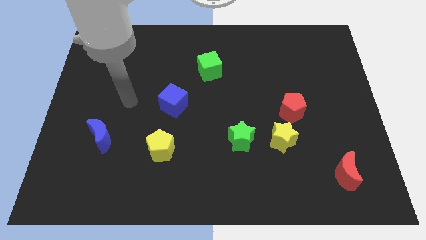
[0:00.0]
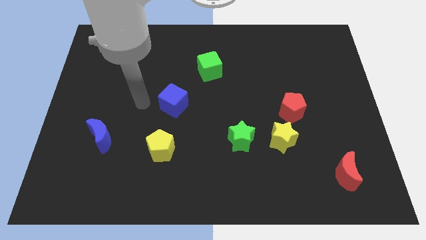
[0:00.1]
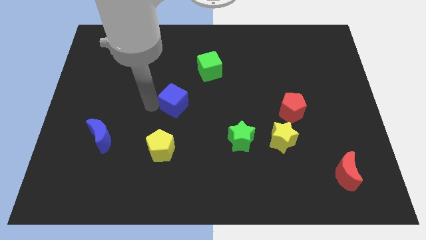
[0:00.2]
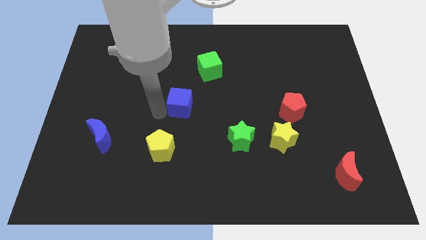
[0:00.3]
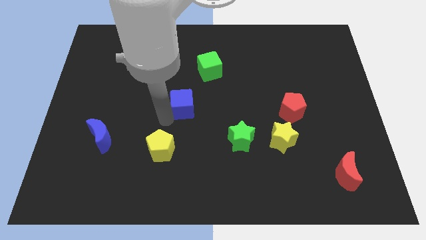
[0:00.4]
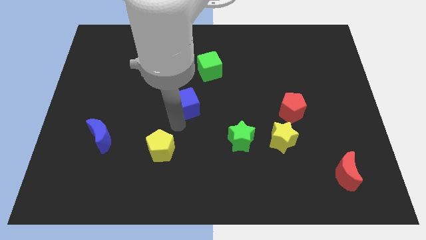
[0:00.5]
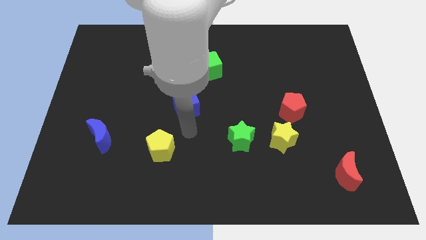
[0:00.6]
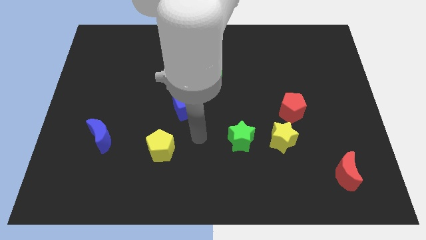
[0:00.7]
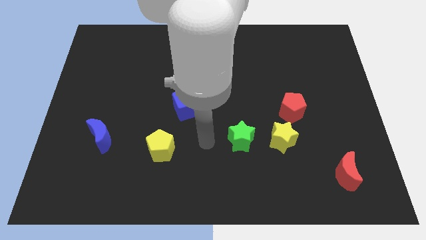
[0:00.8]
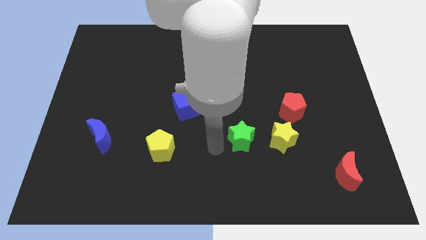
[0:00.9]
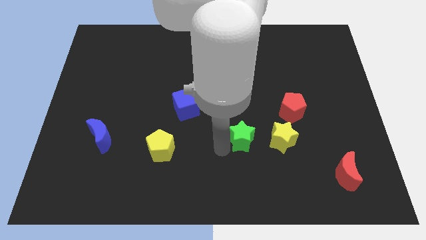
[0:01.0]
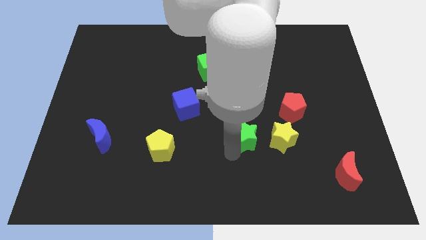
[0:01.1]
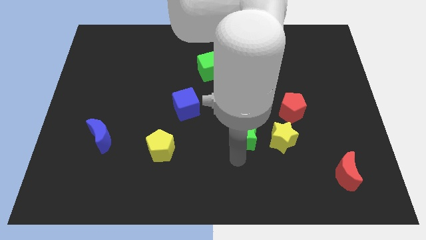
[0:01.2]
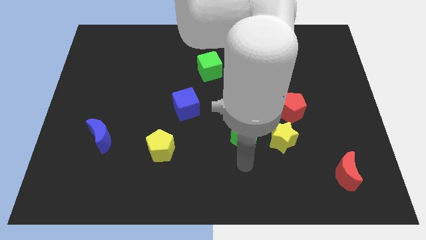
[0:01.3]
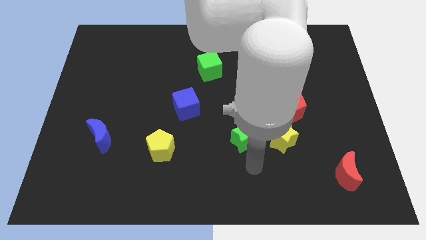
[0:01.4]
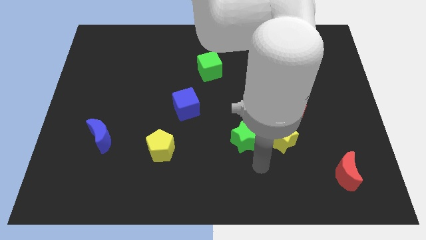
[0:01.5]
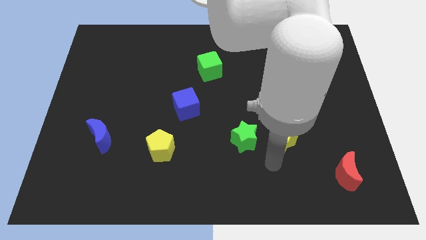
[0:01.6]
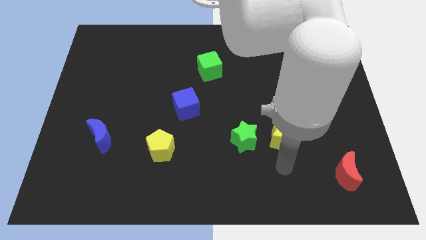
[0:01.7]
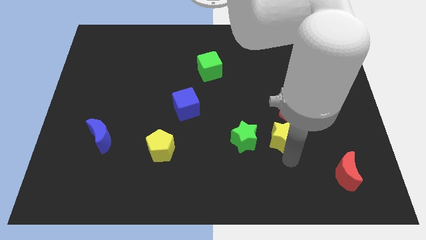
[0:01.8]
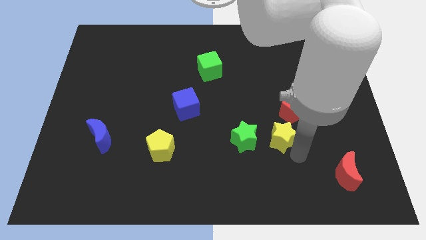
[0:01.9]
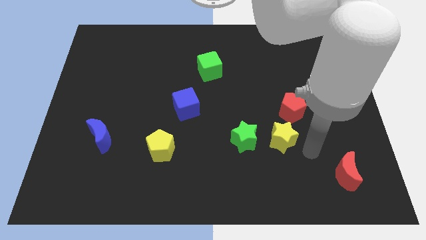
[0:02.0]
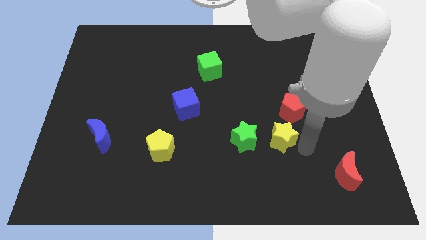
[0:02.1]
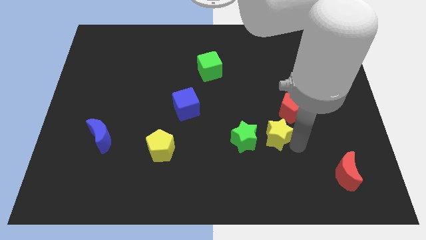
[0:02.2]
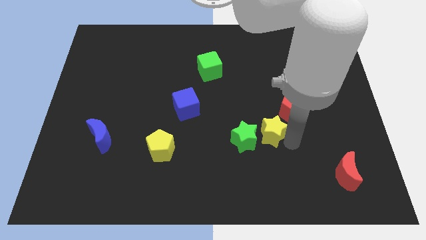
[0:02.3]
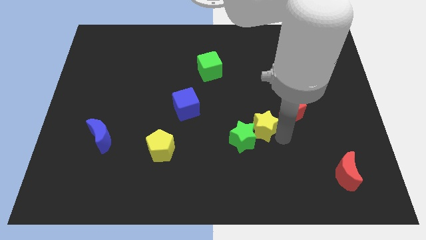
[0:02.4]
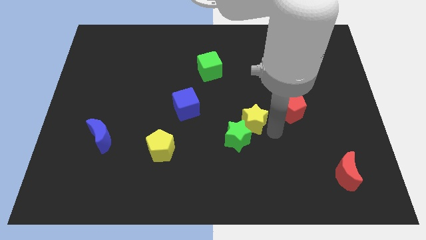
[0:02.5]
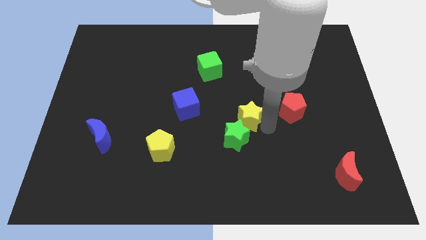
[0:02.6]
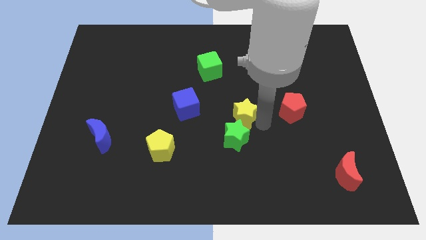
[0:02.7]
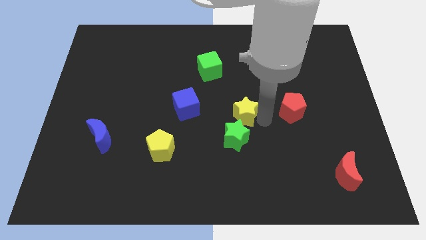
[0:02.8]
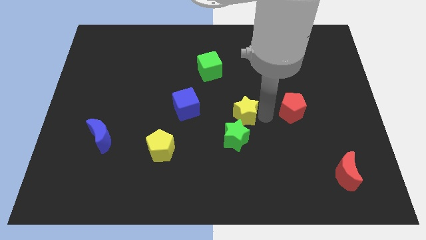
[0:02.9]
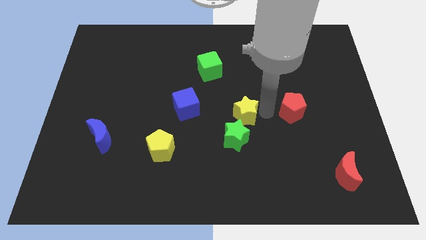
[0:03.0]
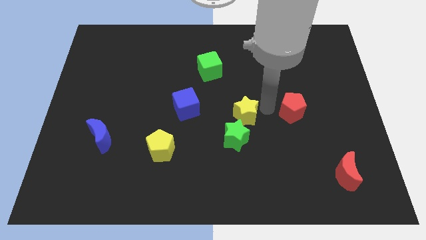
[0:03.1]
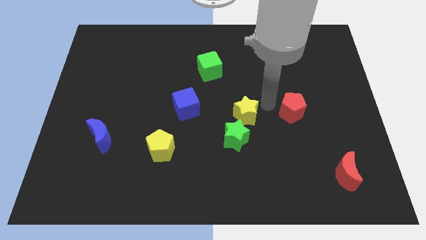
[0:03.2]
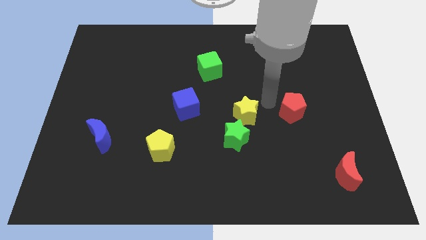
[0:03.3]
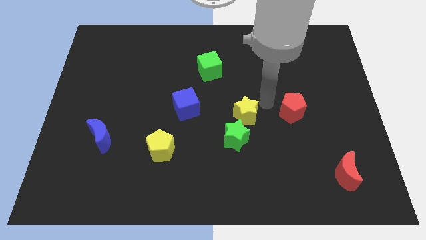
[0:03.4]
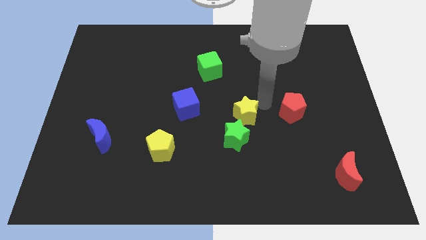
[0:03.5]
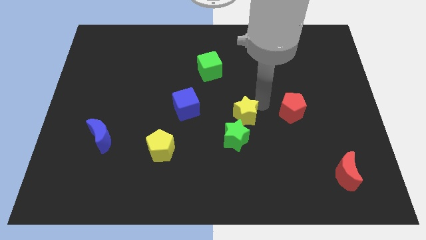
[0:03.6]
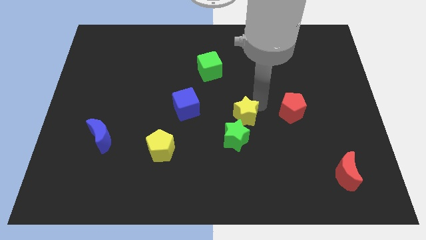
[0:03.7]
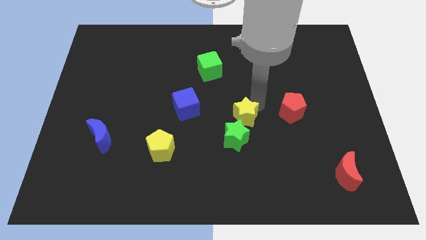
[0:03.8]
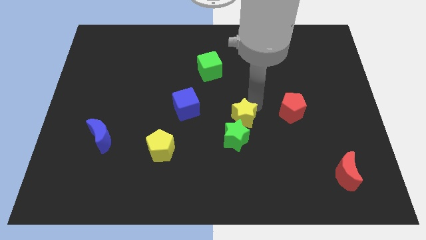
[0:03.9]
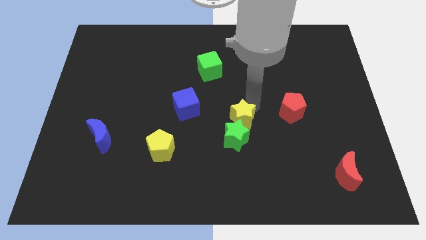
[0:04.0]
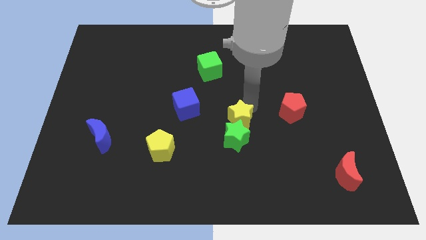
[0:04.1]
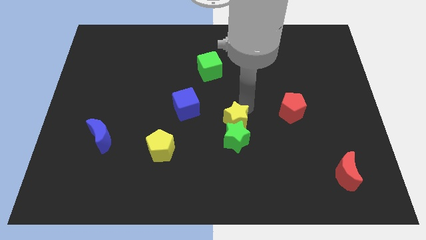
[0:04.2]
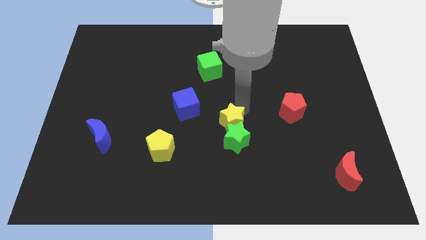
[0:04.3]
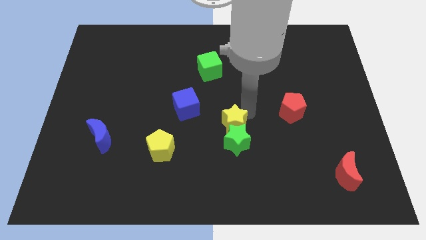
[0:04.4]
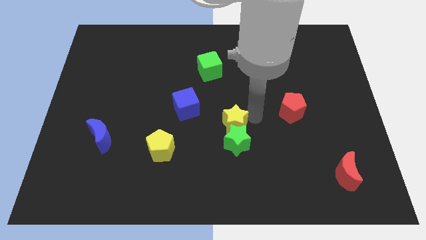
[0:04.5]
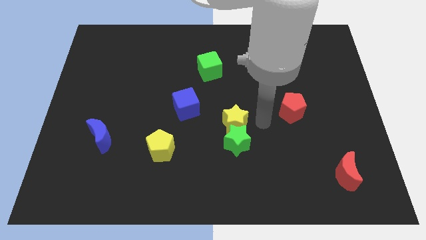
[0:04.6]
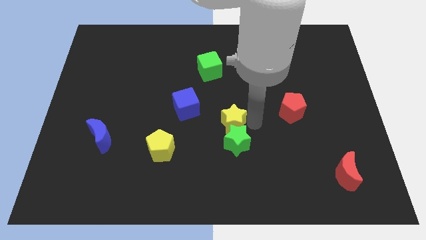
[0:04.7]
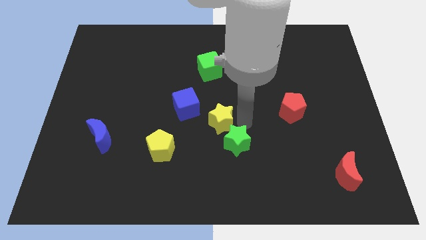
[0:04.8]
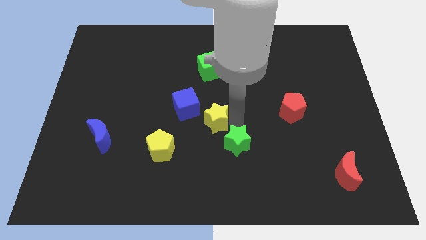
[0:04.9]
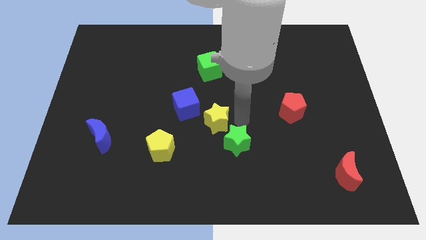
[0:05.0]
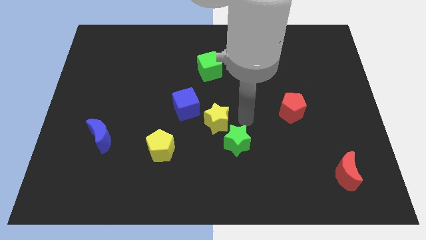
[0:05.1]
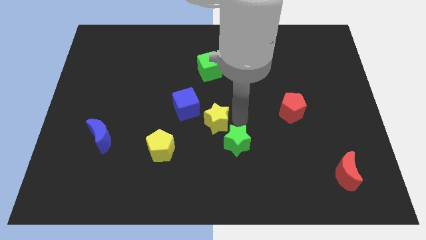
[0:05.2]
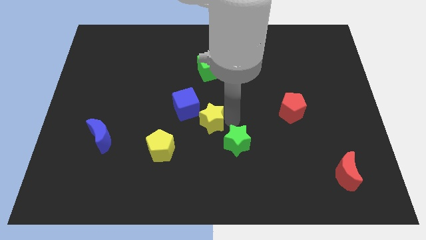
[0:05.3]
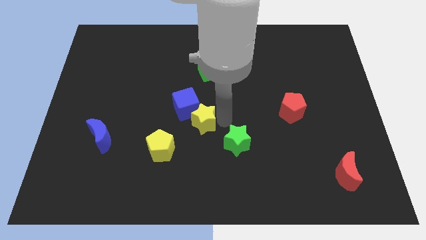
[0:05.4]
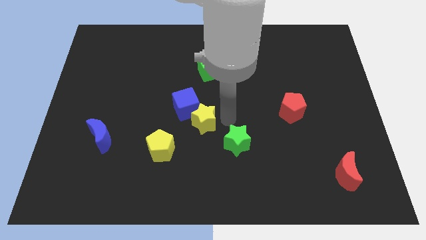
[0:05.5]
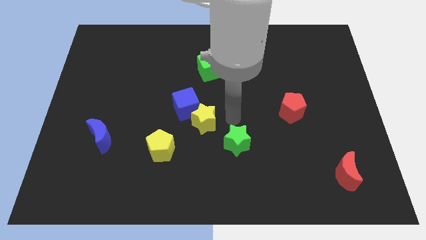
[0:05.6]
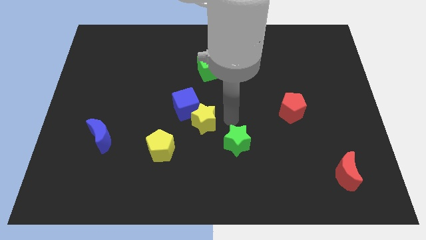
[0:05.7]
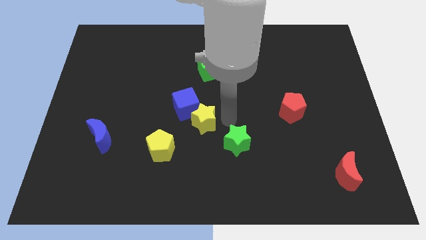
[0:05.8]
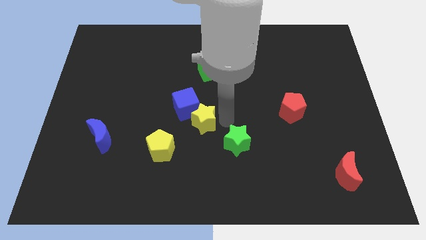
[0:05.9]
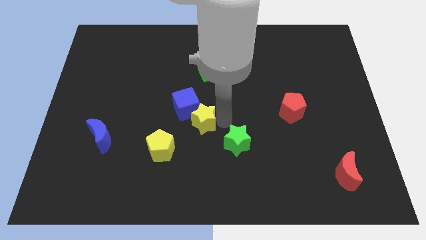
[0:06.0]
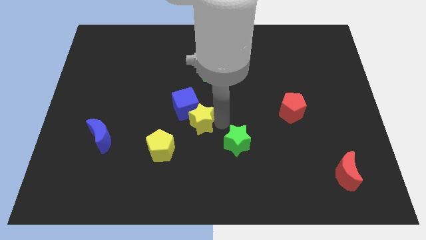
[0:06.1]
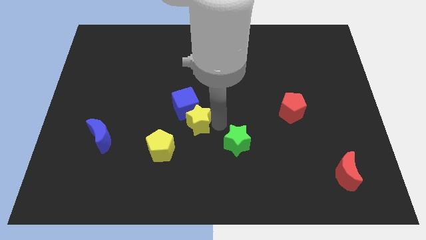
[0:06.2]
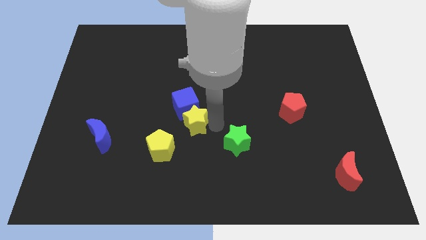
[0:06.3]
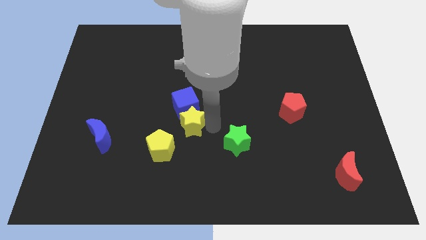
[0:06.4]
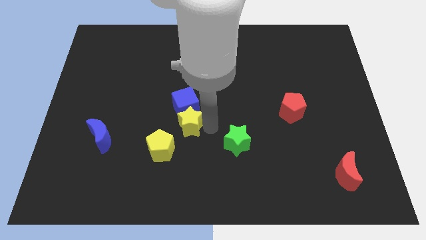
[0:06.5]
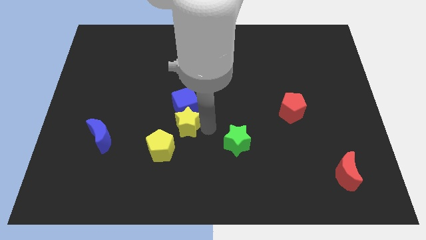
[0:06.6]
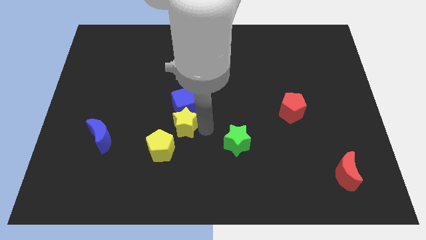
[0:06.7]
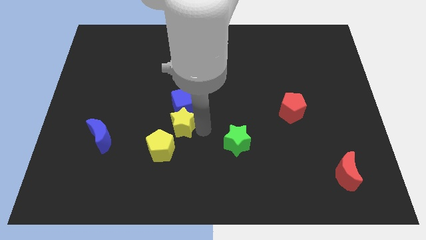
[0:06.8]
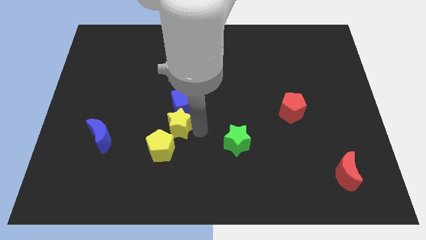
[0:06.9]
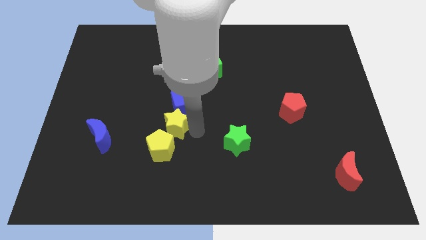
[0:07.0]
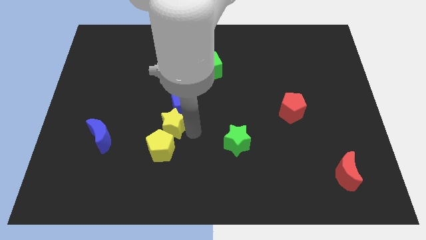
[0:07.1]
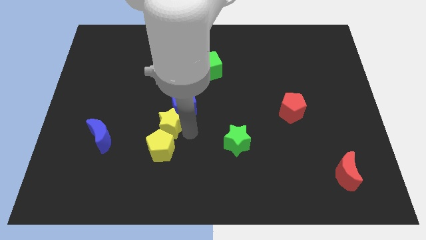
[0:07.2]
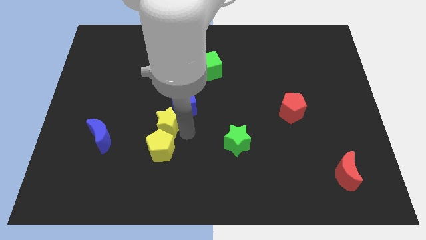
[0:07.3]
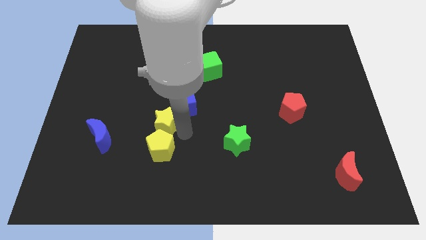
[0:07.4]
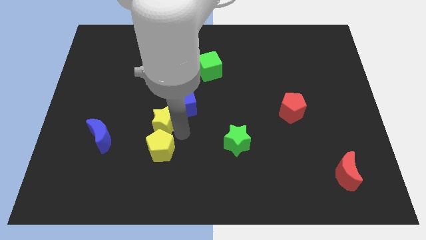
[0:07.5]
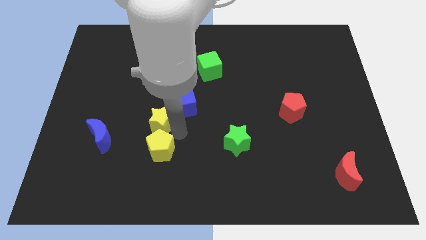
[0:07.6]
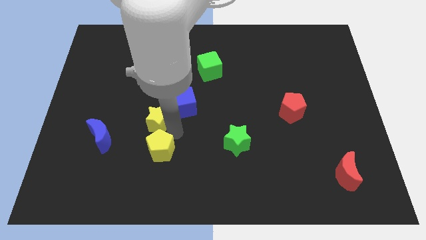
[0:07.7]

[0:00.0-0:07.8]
put the yellow star just left of the blue cube
